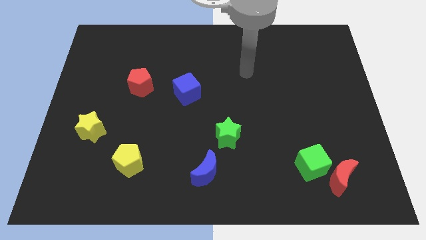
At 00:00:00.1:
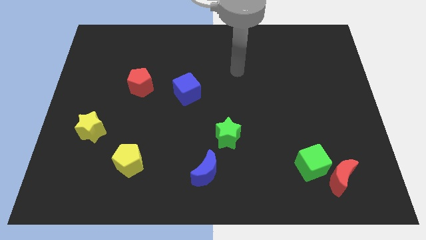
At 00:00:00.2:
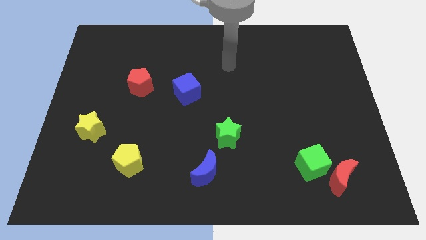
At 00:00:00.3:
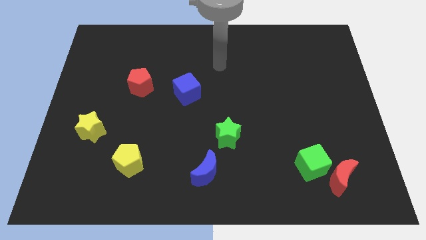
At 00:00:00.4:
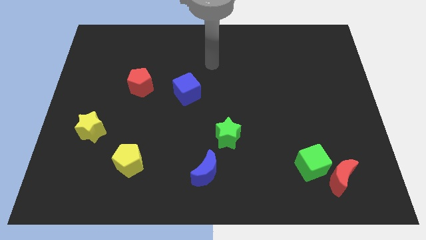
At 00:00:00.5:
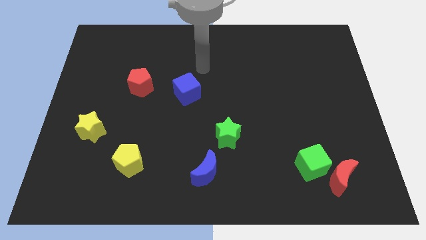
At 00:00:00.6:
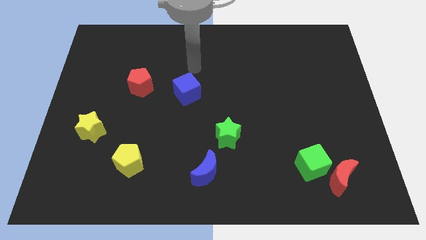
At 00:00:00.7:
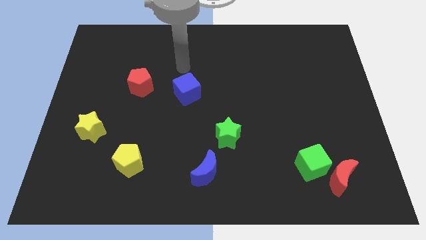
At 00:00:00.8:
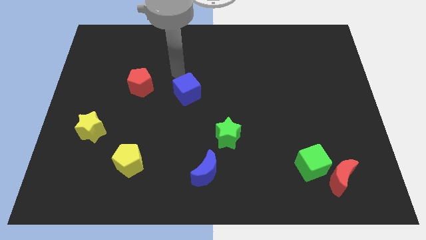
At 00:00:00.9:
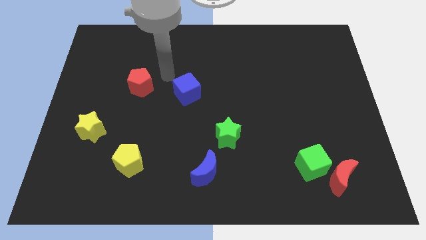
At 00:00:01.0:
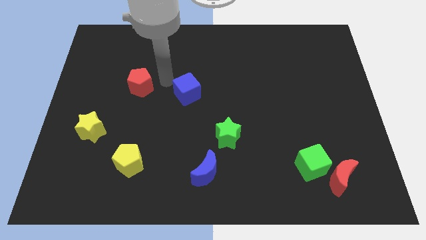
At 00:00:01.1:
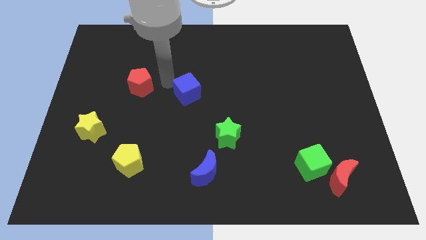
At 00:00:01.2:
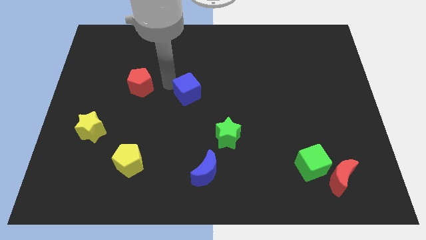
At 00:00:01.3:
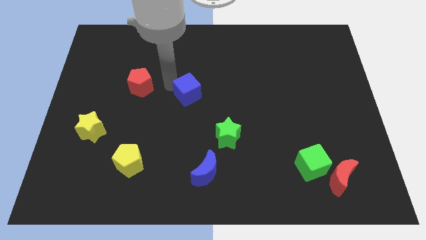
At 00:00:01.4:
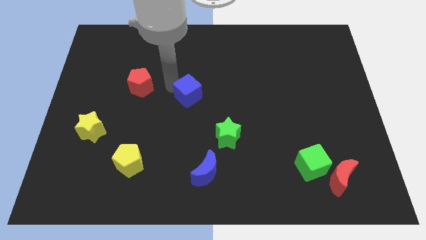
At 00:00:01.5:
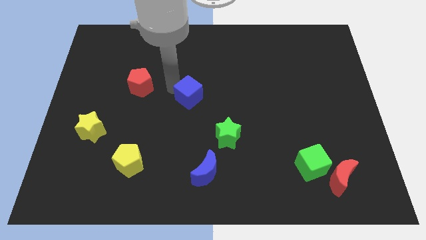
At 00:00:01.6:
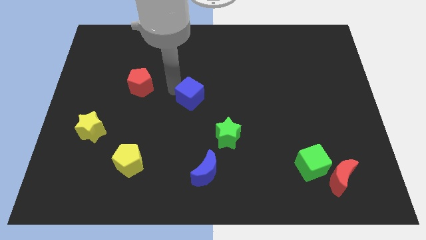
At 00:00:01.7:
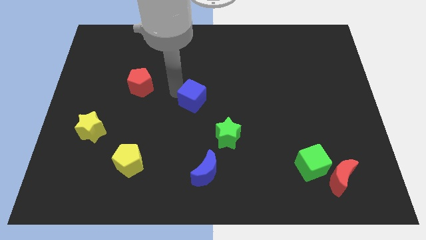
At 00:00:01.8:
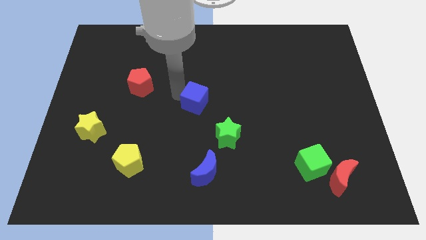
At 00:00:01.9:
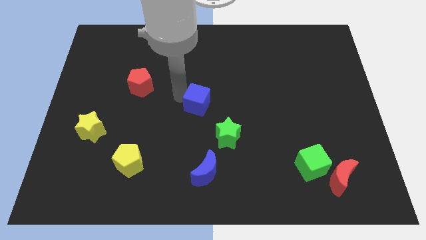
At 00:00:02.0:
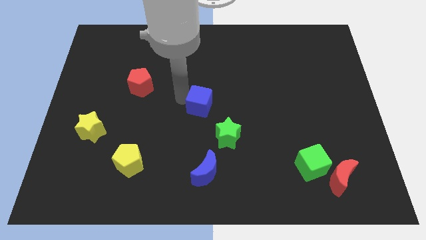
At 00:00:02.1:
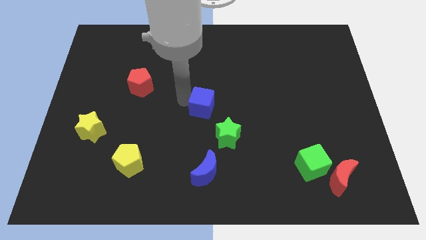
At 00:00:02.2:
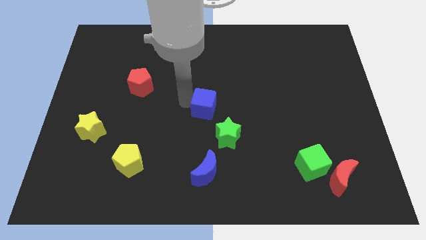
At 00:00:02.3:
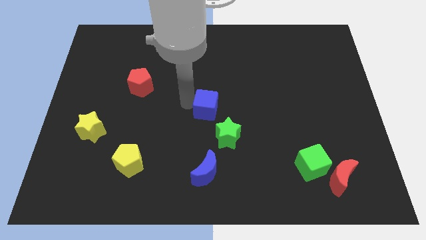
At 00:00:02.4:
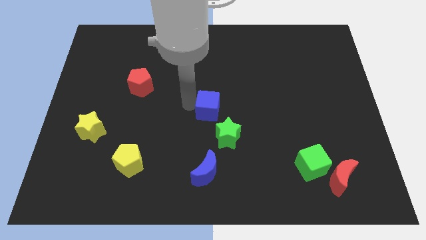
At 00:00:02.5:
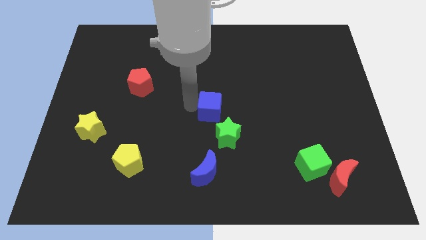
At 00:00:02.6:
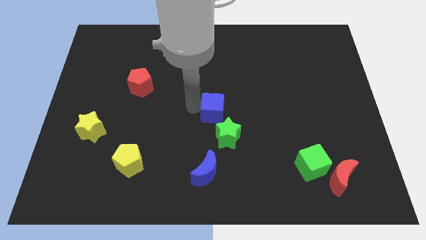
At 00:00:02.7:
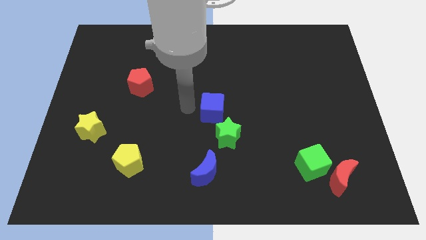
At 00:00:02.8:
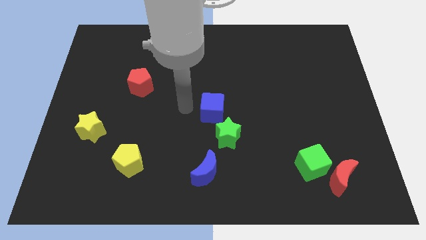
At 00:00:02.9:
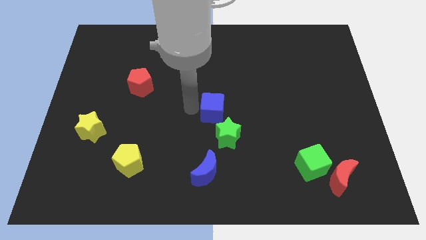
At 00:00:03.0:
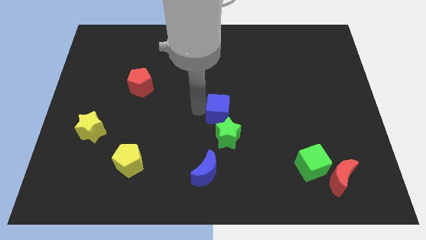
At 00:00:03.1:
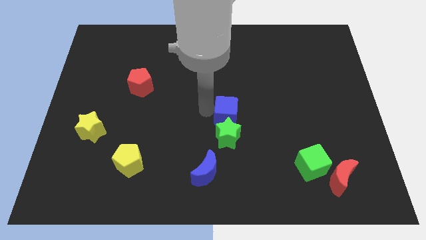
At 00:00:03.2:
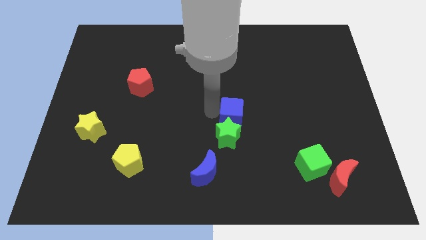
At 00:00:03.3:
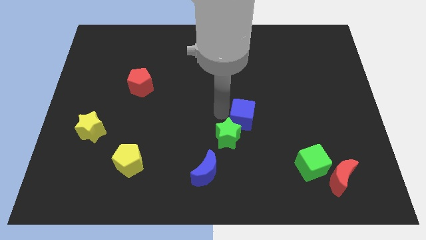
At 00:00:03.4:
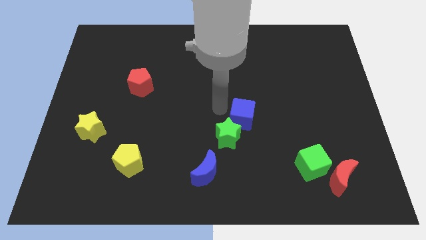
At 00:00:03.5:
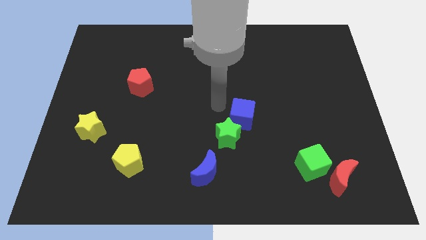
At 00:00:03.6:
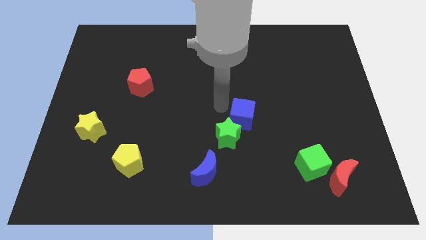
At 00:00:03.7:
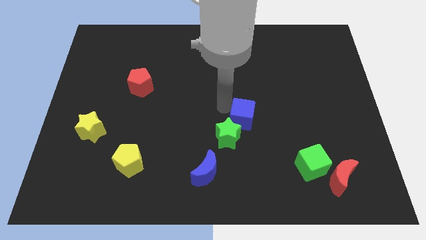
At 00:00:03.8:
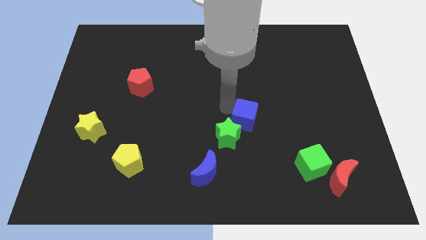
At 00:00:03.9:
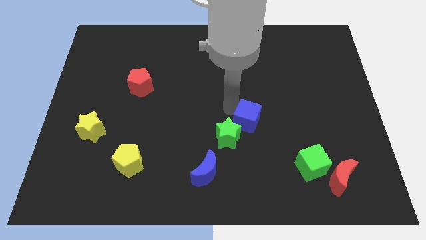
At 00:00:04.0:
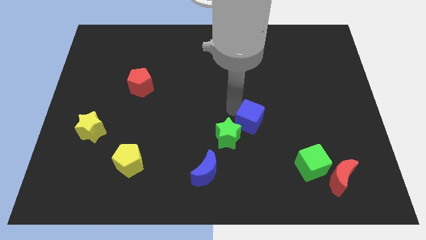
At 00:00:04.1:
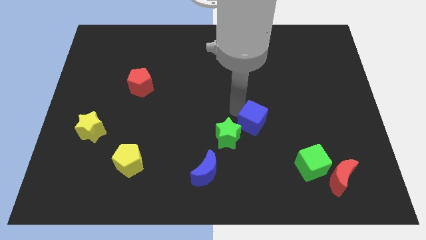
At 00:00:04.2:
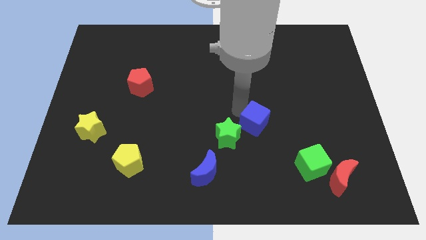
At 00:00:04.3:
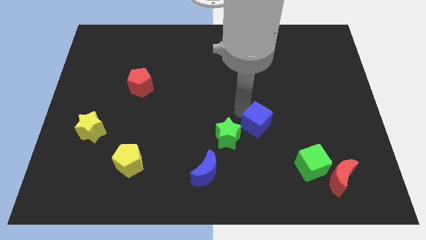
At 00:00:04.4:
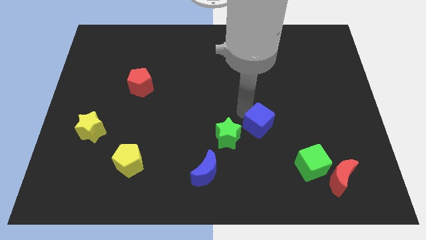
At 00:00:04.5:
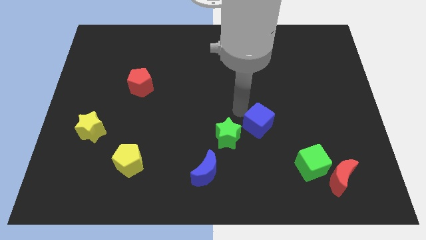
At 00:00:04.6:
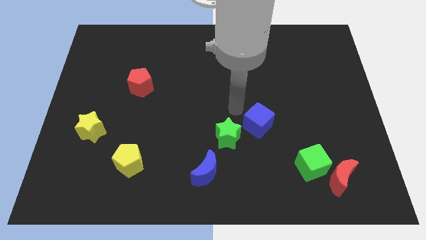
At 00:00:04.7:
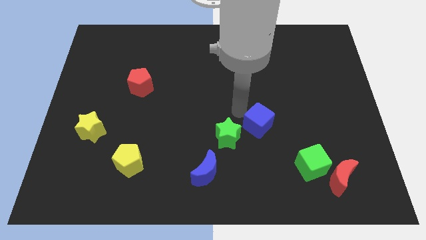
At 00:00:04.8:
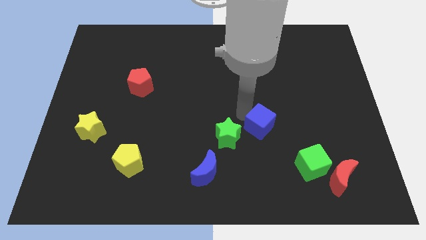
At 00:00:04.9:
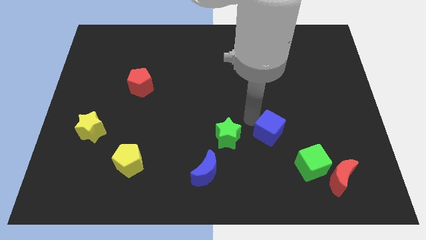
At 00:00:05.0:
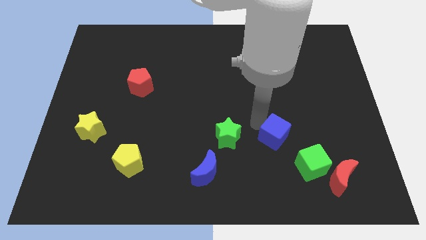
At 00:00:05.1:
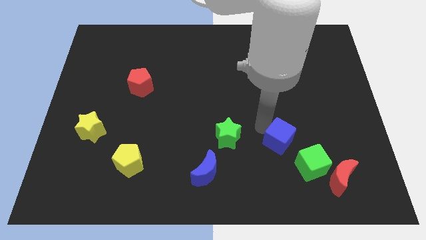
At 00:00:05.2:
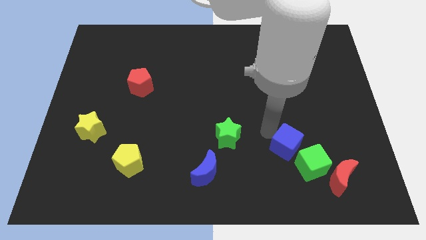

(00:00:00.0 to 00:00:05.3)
slide the blue cube to the top left side of the red moon

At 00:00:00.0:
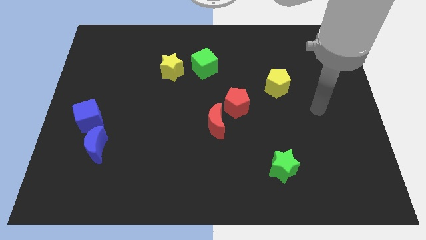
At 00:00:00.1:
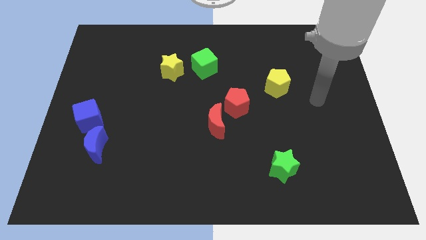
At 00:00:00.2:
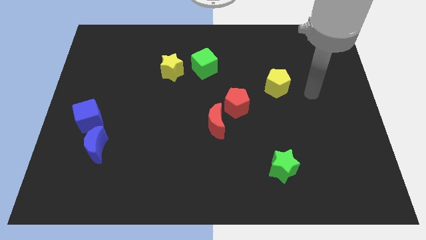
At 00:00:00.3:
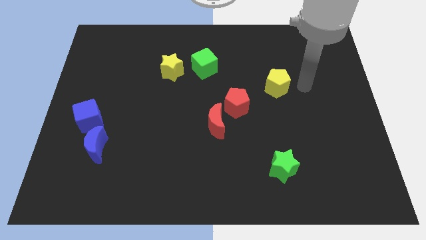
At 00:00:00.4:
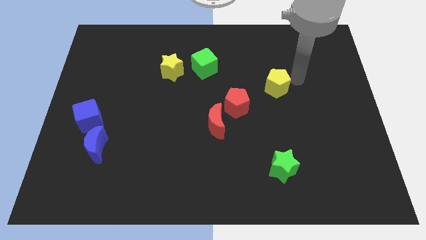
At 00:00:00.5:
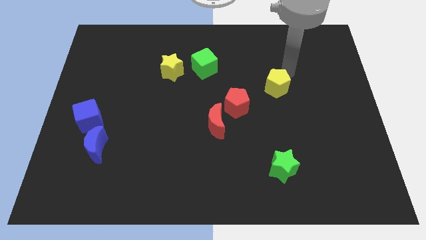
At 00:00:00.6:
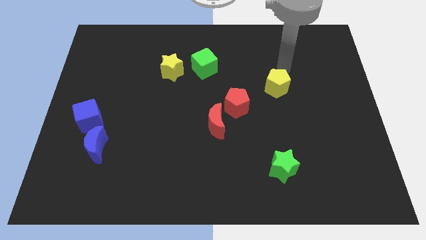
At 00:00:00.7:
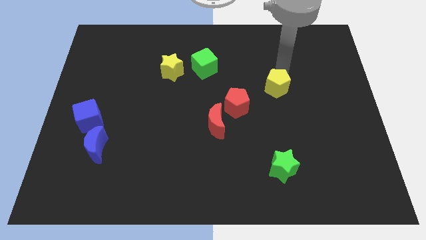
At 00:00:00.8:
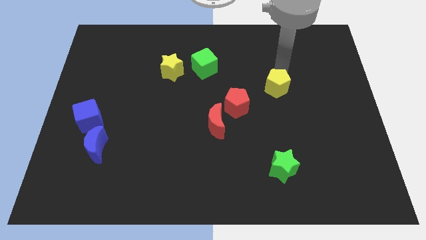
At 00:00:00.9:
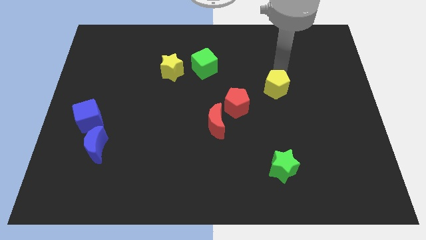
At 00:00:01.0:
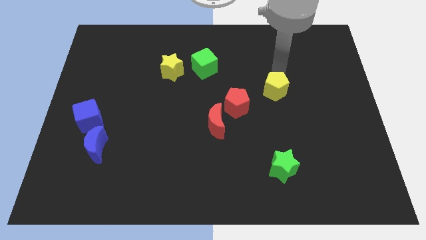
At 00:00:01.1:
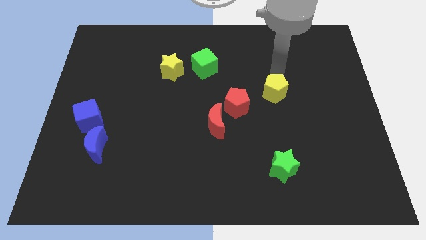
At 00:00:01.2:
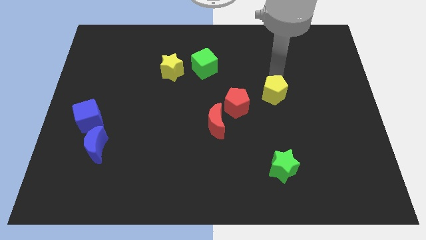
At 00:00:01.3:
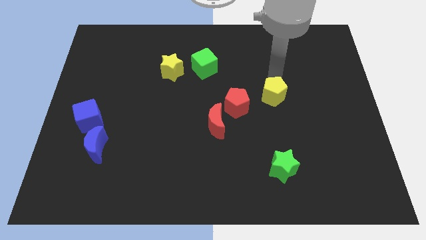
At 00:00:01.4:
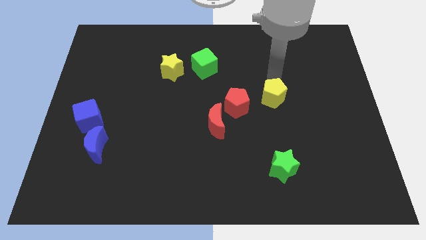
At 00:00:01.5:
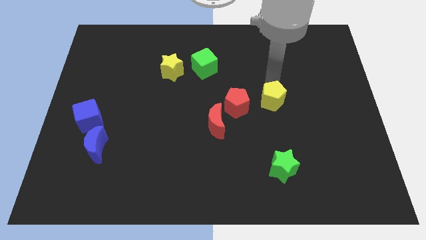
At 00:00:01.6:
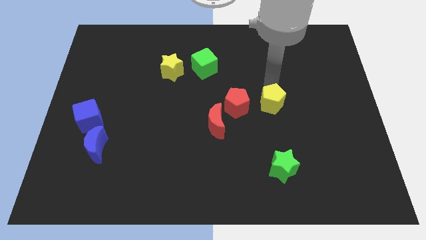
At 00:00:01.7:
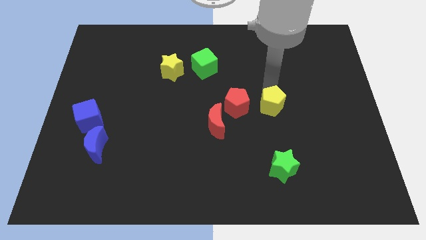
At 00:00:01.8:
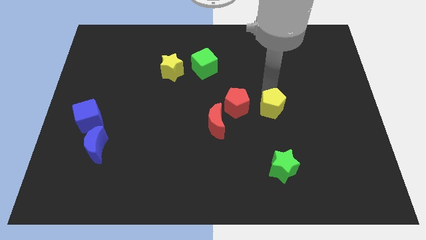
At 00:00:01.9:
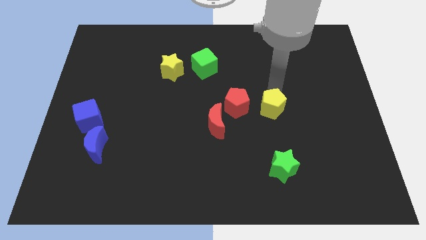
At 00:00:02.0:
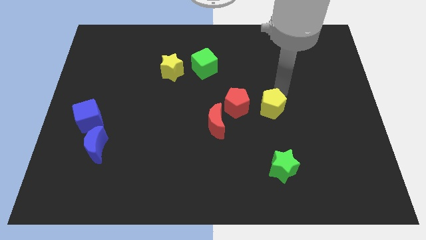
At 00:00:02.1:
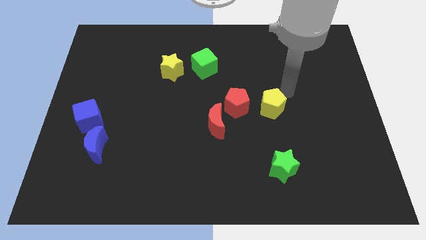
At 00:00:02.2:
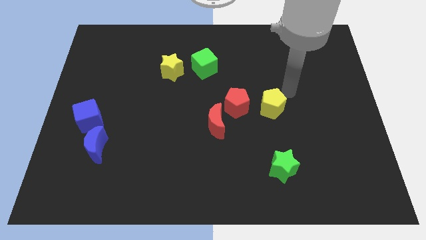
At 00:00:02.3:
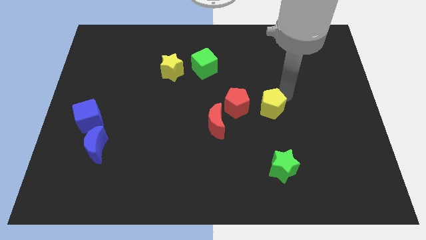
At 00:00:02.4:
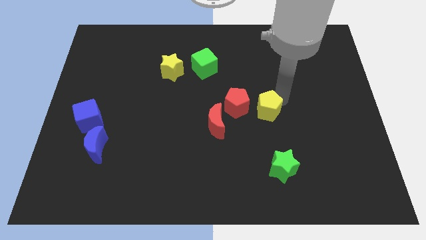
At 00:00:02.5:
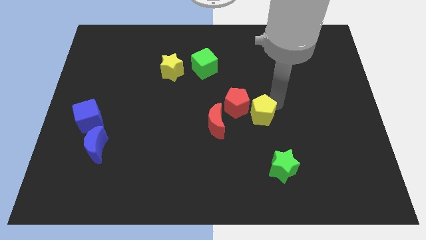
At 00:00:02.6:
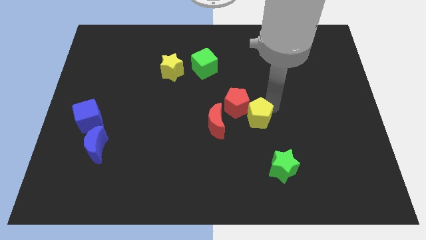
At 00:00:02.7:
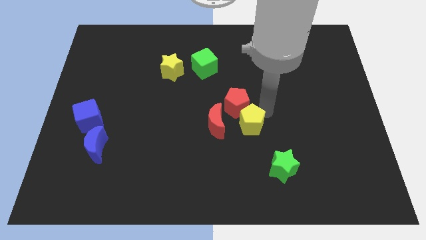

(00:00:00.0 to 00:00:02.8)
push the yellow pentagon to the bottom side of the red pentagon
